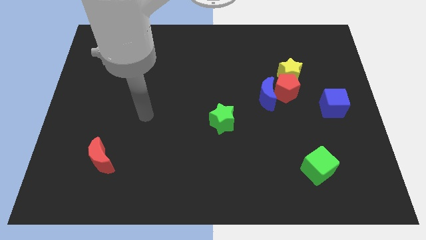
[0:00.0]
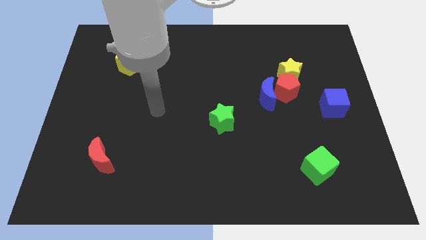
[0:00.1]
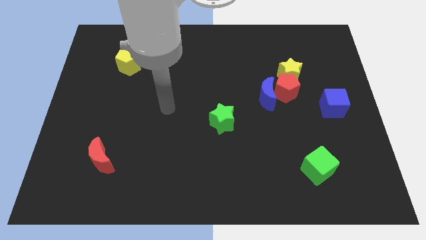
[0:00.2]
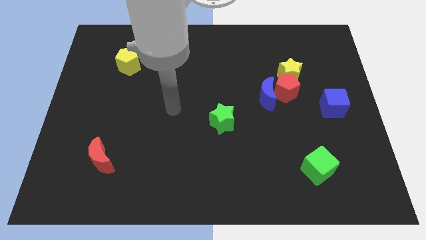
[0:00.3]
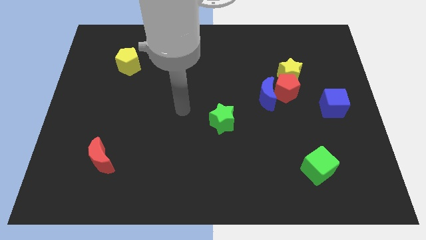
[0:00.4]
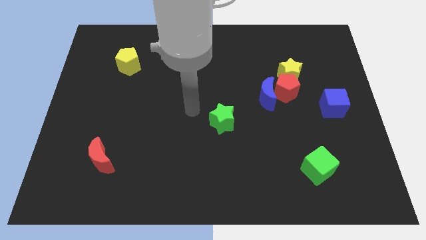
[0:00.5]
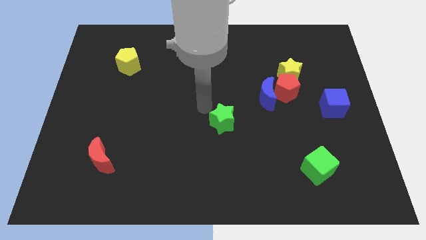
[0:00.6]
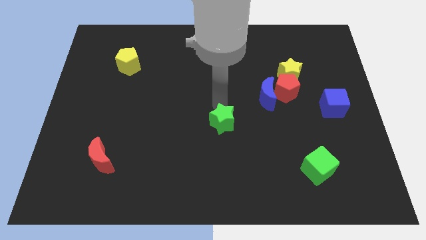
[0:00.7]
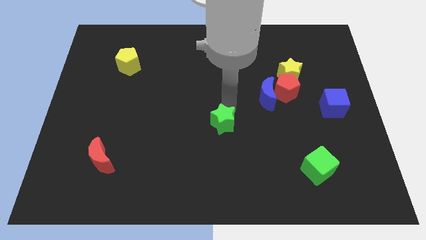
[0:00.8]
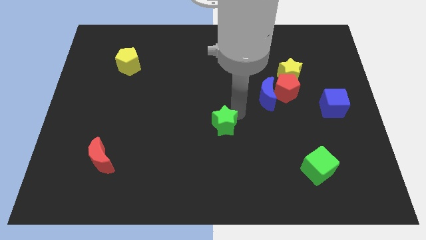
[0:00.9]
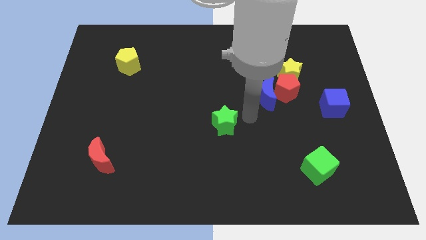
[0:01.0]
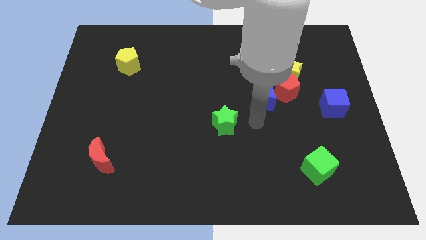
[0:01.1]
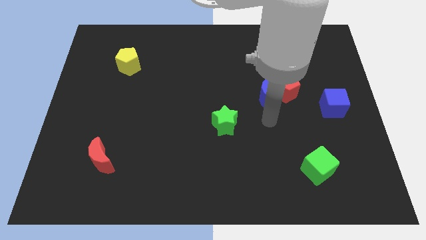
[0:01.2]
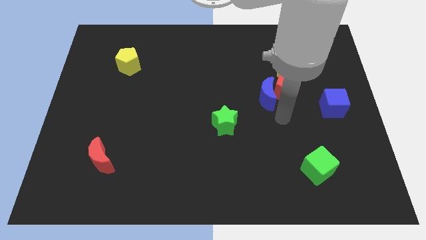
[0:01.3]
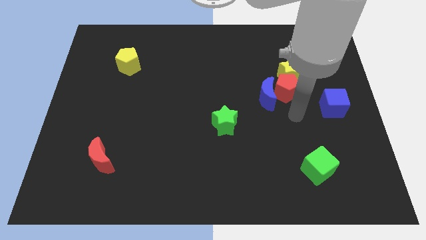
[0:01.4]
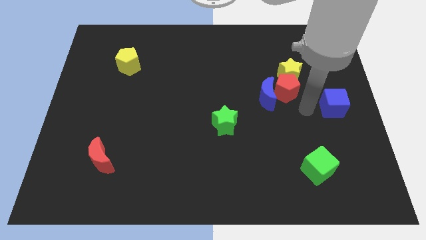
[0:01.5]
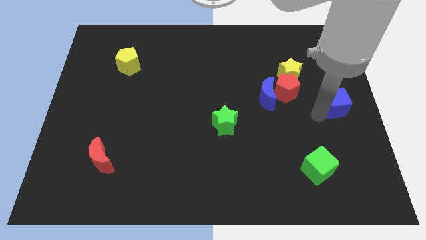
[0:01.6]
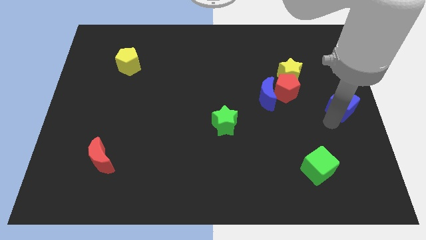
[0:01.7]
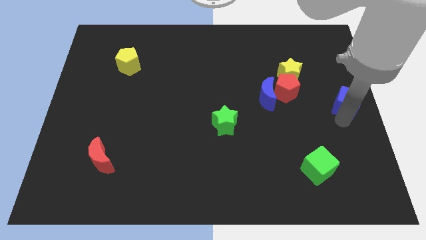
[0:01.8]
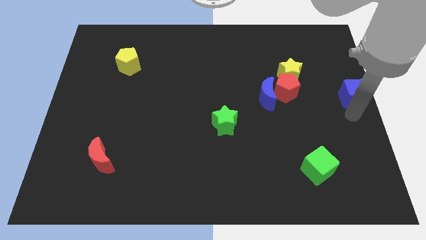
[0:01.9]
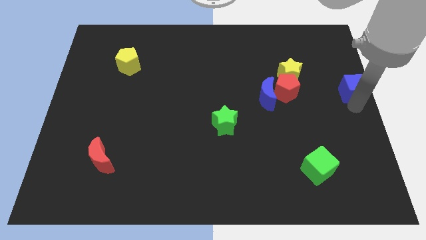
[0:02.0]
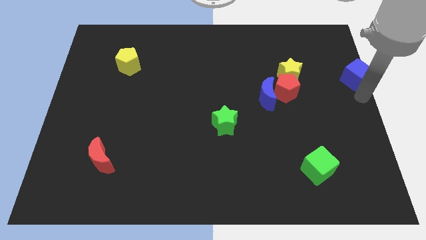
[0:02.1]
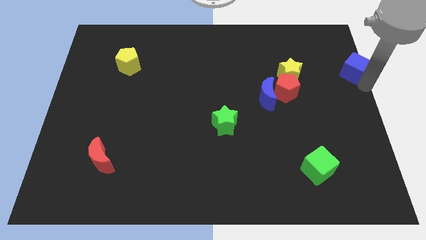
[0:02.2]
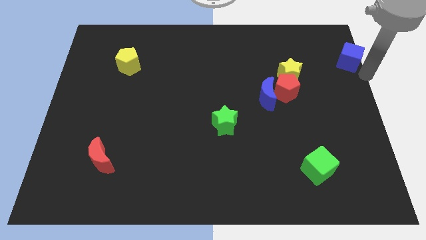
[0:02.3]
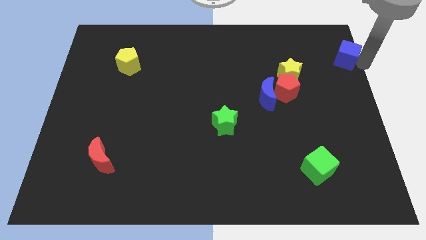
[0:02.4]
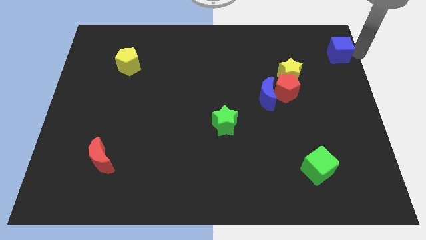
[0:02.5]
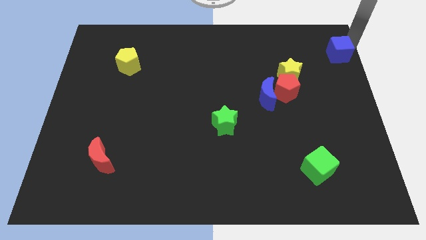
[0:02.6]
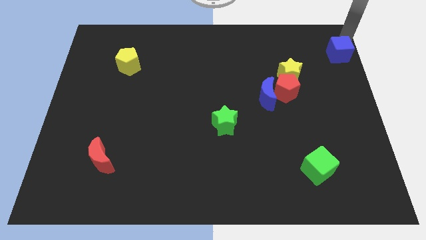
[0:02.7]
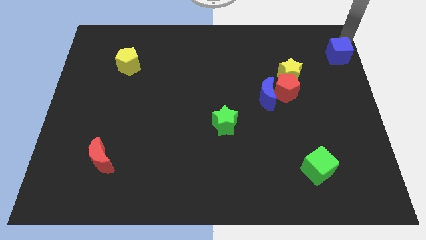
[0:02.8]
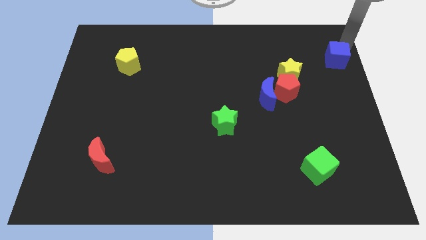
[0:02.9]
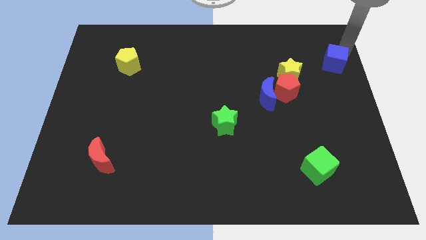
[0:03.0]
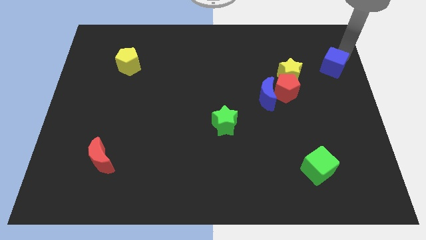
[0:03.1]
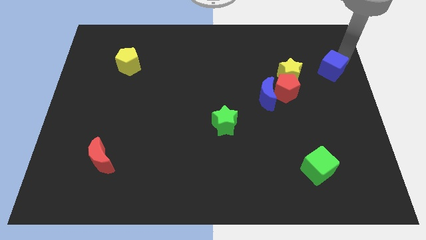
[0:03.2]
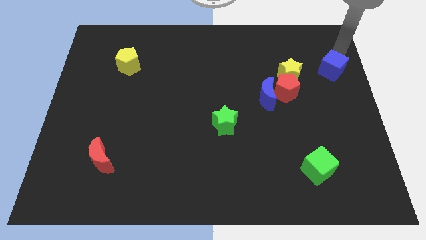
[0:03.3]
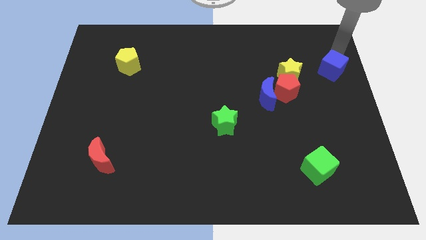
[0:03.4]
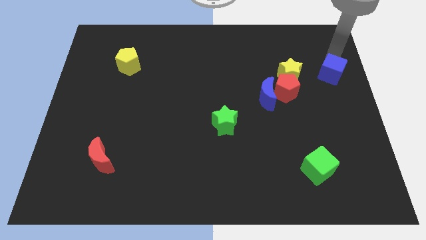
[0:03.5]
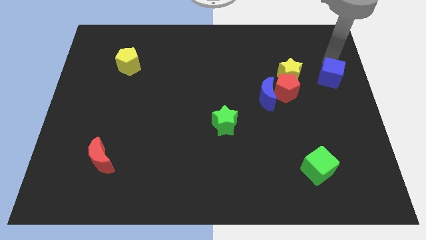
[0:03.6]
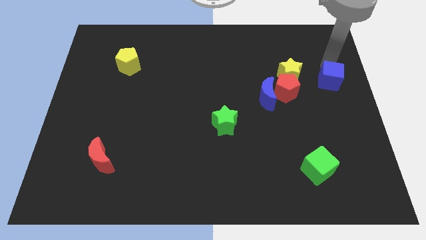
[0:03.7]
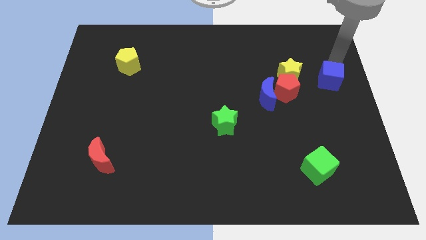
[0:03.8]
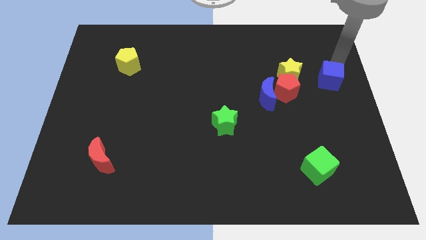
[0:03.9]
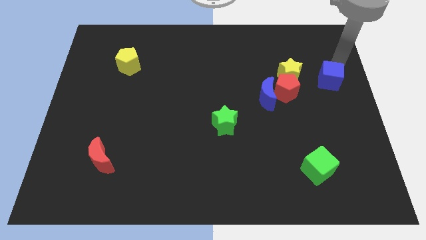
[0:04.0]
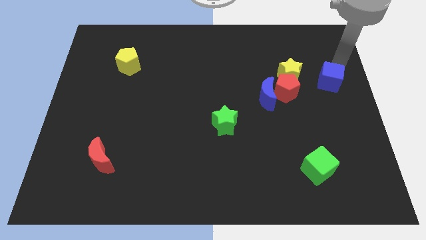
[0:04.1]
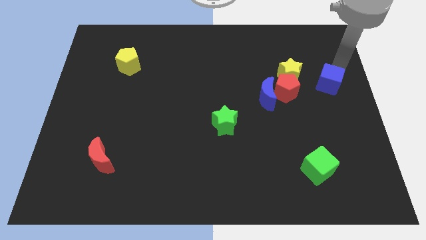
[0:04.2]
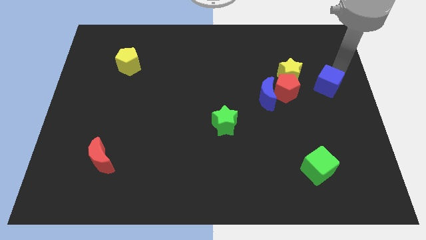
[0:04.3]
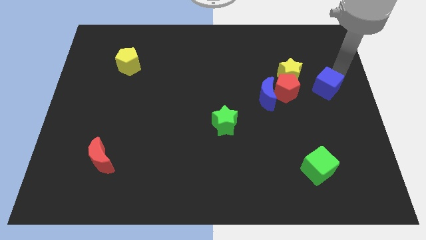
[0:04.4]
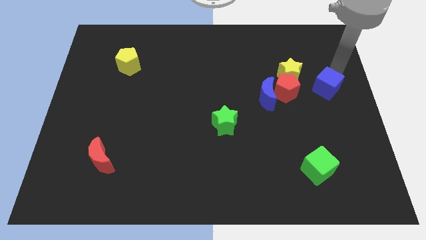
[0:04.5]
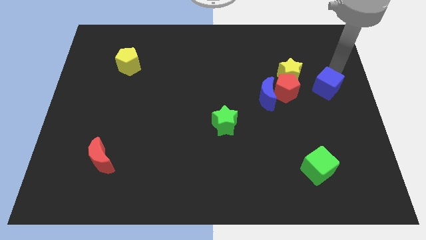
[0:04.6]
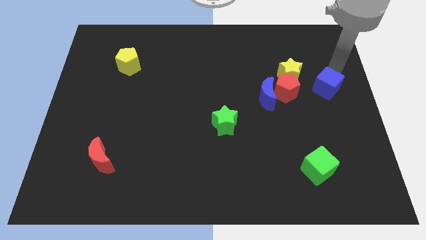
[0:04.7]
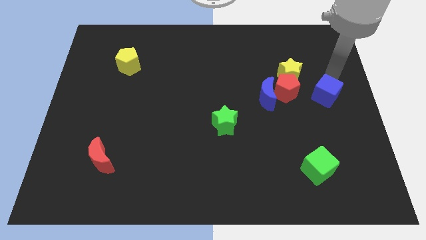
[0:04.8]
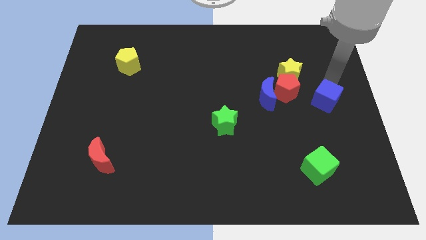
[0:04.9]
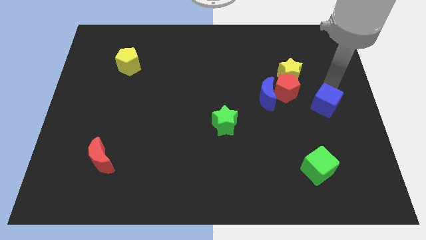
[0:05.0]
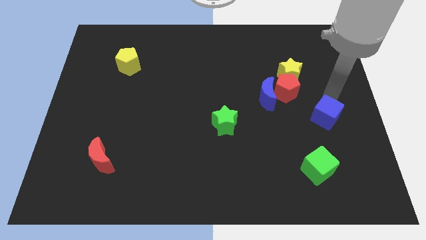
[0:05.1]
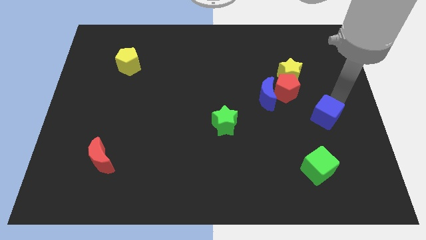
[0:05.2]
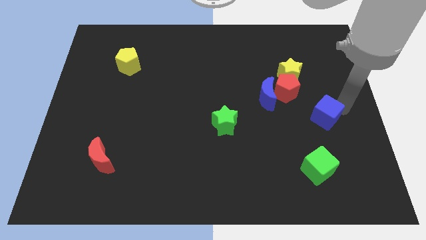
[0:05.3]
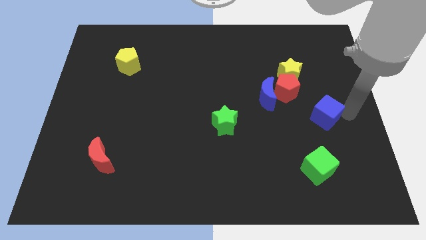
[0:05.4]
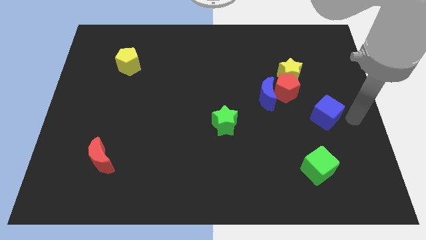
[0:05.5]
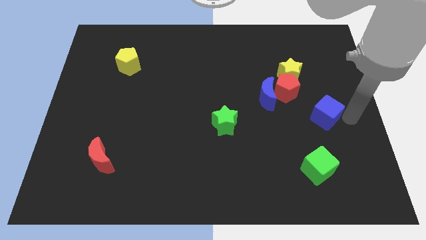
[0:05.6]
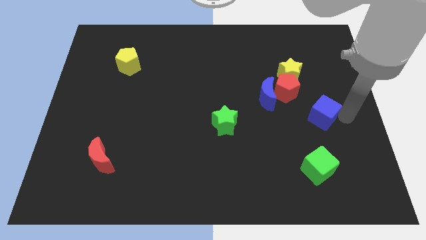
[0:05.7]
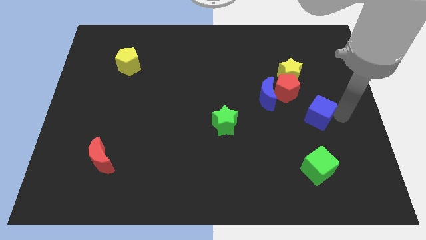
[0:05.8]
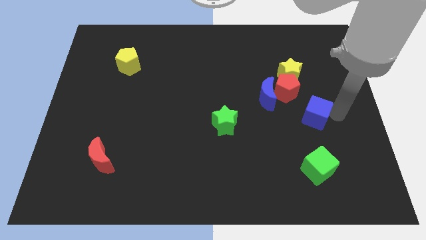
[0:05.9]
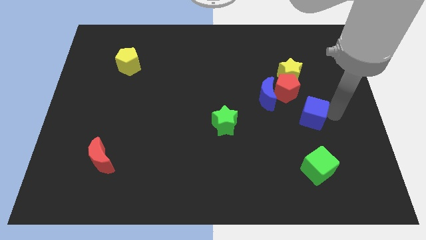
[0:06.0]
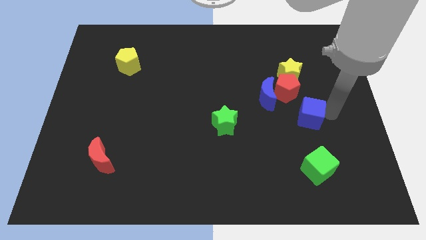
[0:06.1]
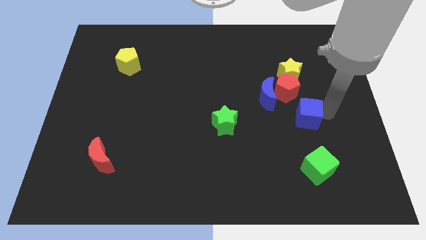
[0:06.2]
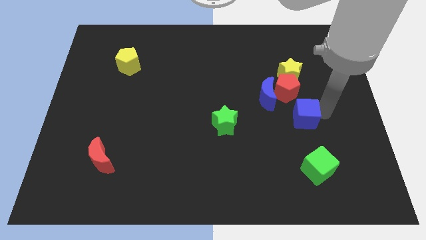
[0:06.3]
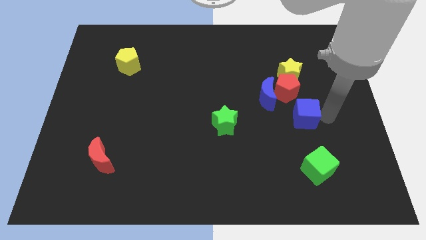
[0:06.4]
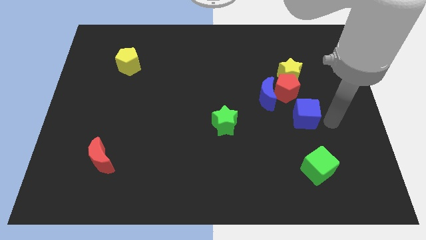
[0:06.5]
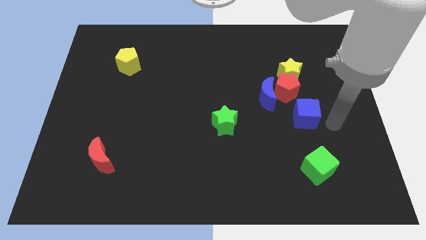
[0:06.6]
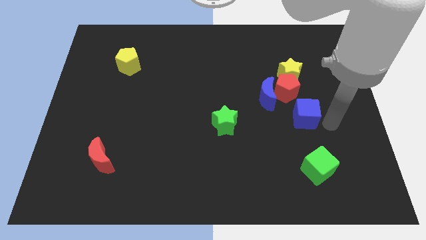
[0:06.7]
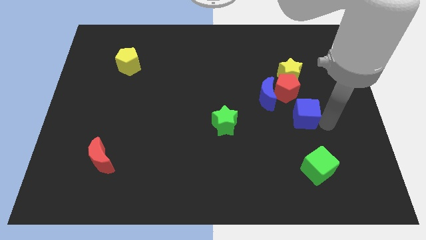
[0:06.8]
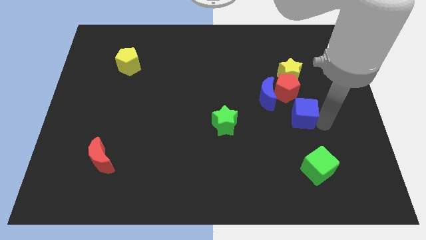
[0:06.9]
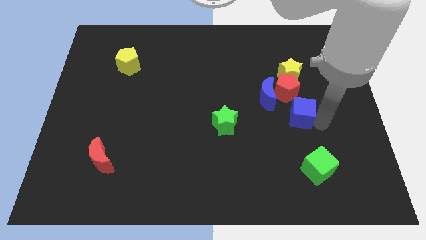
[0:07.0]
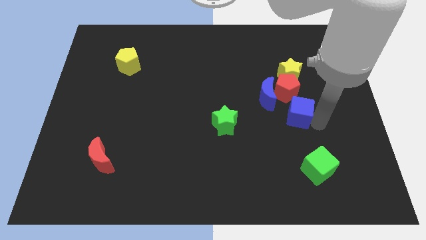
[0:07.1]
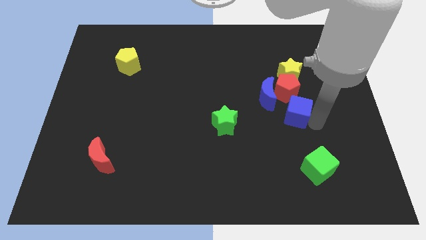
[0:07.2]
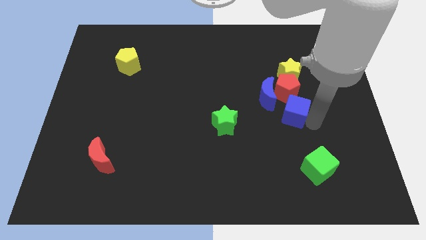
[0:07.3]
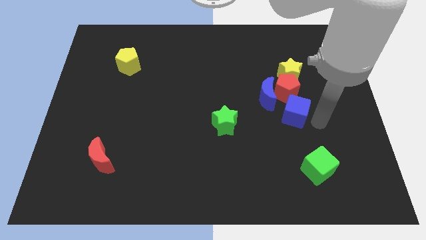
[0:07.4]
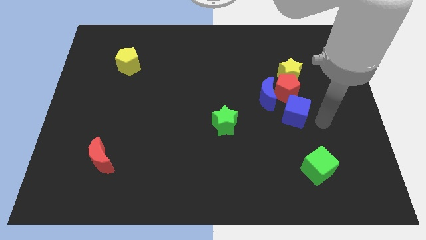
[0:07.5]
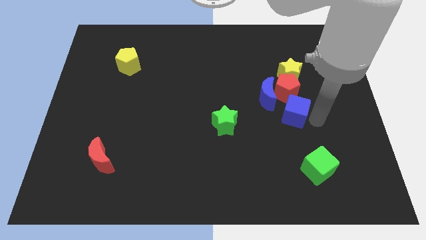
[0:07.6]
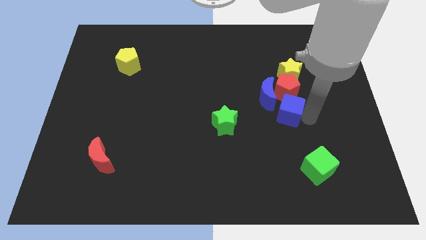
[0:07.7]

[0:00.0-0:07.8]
put the blue cube to the bottom left side of the red pentagon
